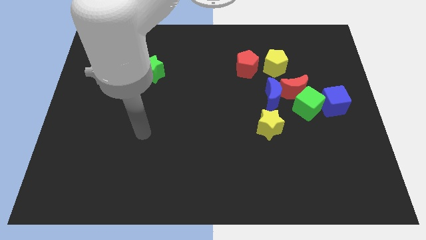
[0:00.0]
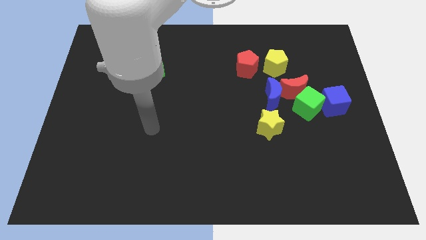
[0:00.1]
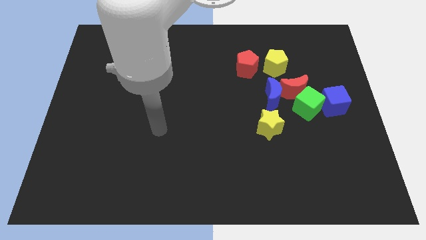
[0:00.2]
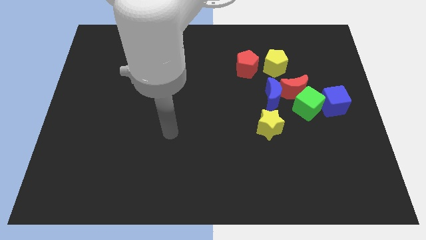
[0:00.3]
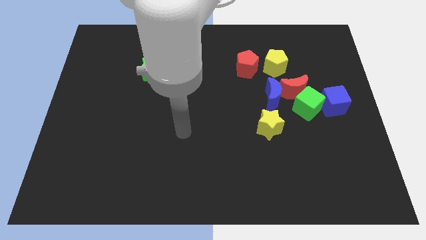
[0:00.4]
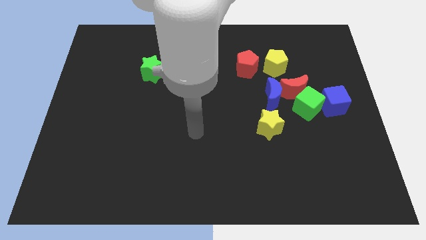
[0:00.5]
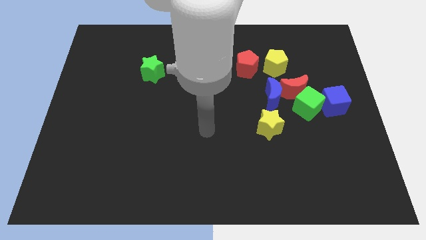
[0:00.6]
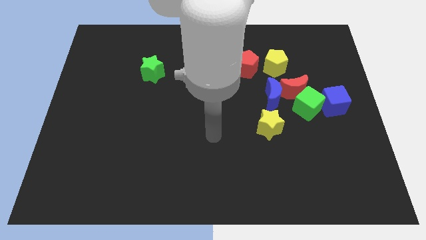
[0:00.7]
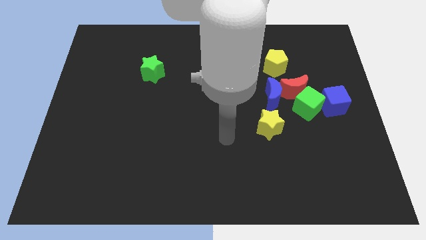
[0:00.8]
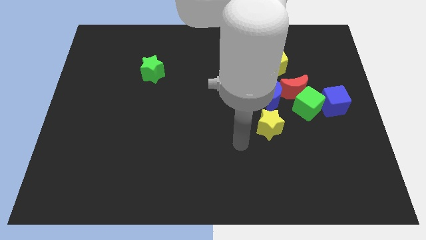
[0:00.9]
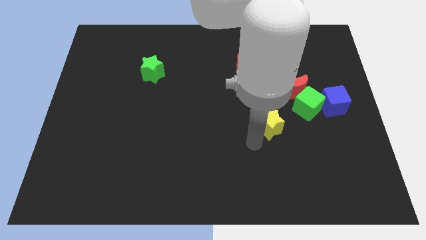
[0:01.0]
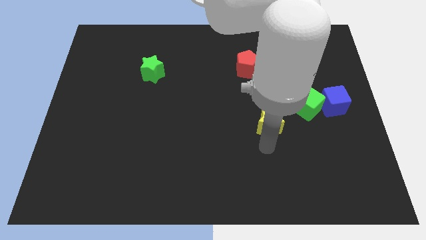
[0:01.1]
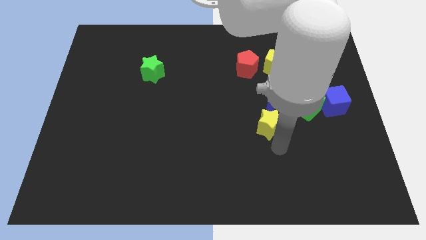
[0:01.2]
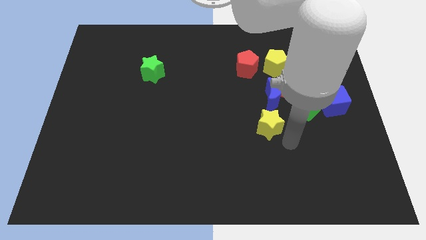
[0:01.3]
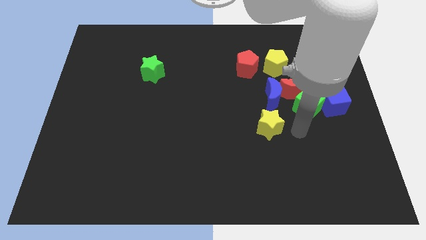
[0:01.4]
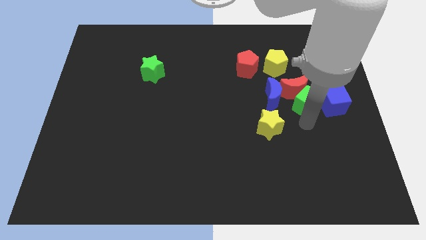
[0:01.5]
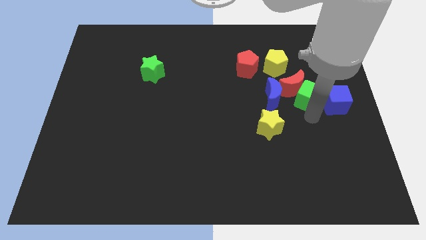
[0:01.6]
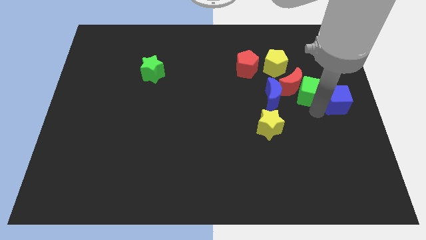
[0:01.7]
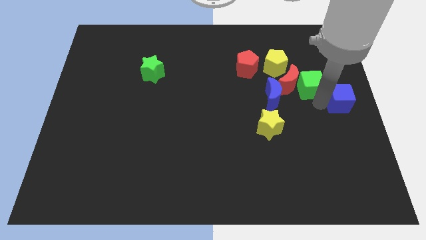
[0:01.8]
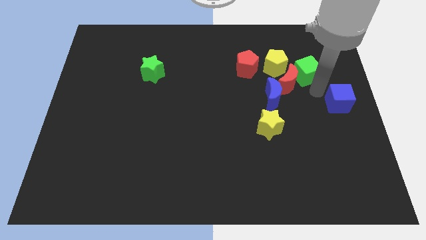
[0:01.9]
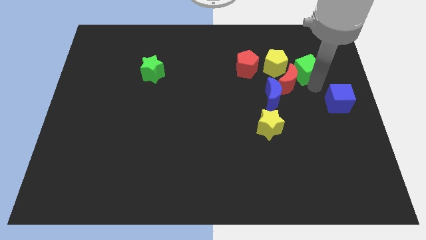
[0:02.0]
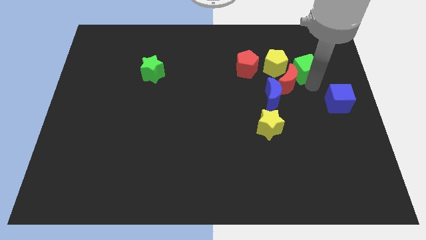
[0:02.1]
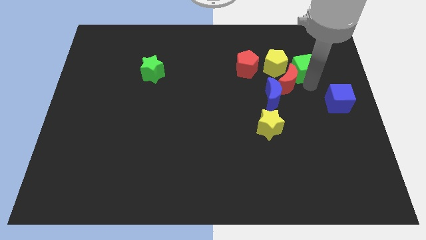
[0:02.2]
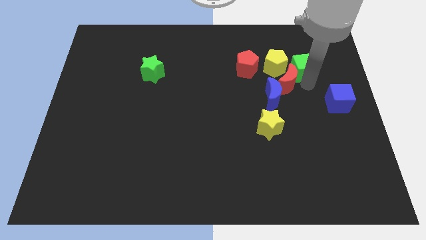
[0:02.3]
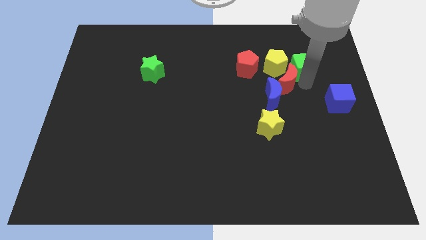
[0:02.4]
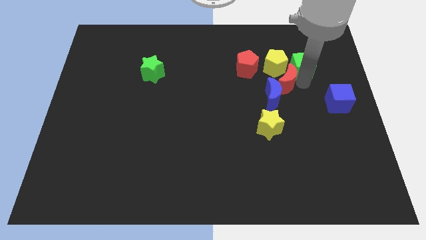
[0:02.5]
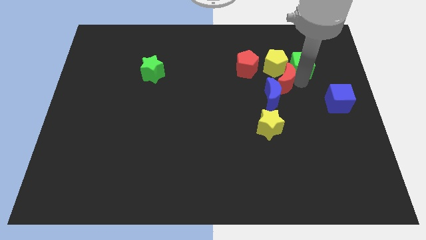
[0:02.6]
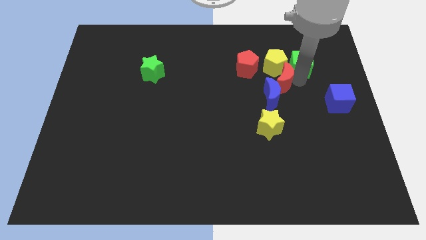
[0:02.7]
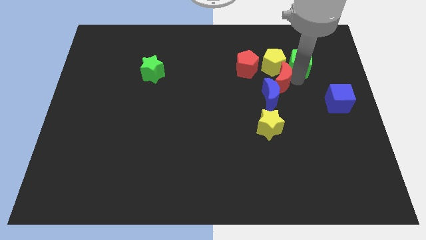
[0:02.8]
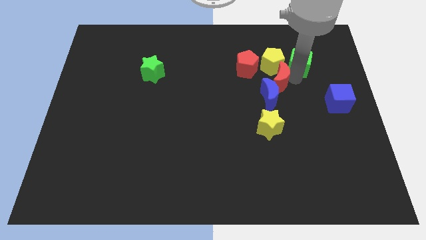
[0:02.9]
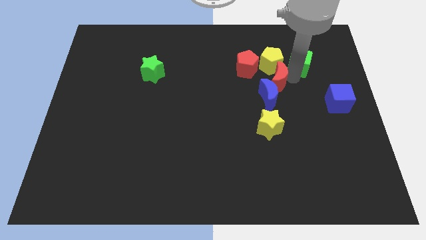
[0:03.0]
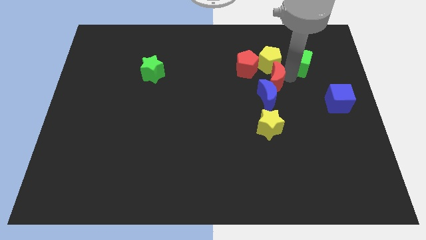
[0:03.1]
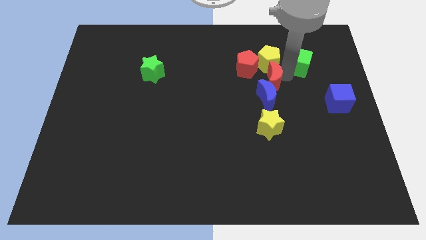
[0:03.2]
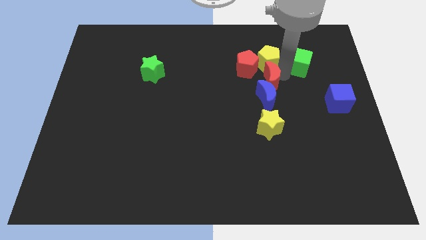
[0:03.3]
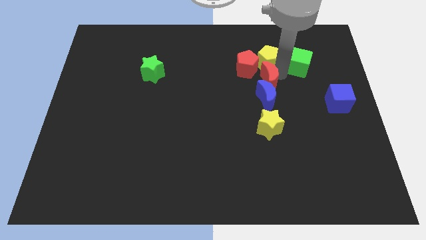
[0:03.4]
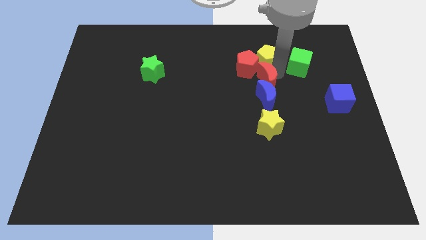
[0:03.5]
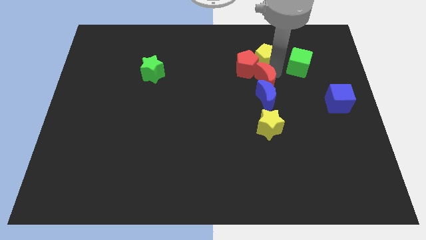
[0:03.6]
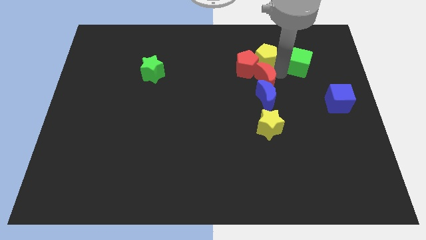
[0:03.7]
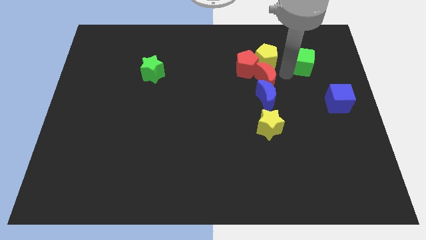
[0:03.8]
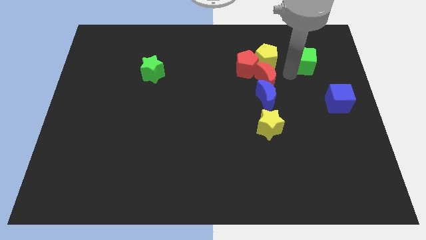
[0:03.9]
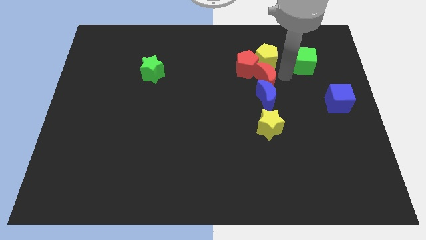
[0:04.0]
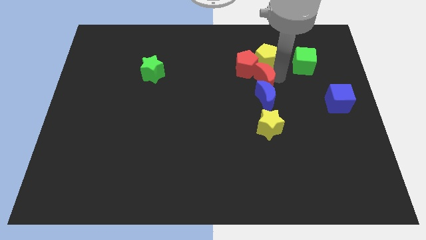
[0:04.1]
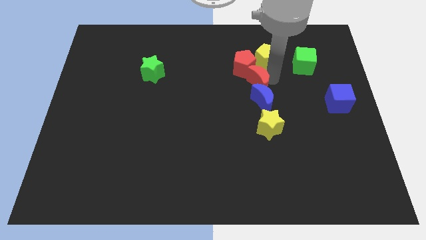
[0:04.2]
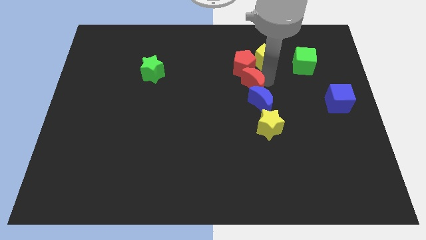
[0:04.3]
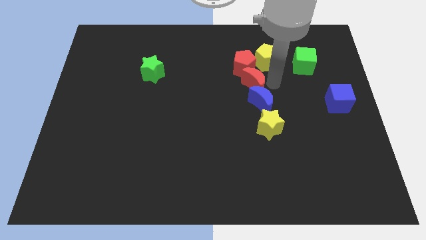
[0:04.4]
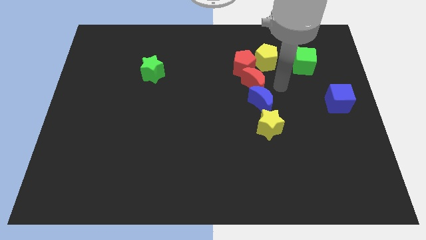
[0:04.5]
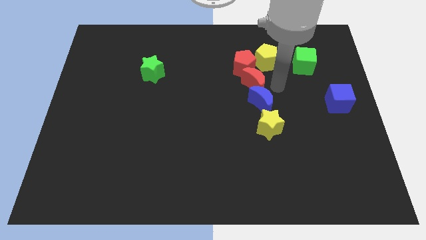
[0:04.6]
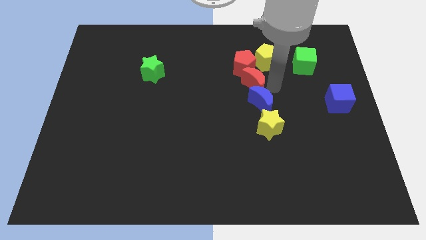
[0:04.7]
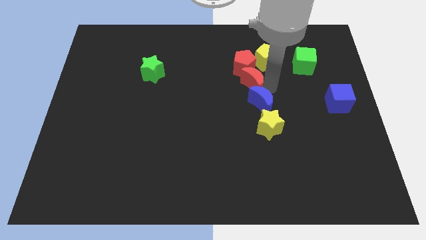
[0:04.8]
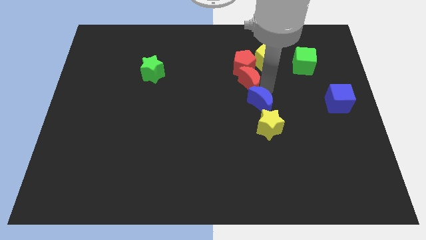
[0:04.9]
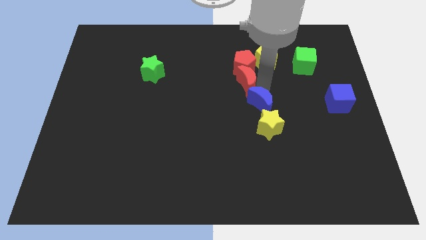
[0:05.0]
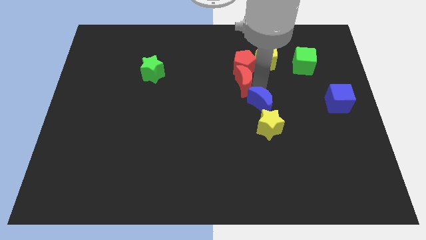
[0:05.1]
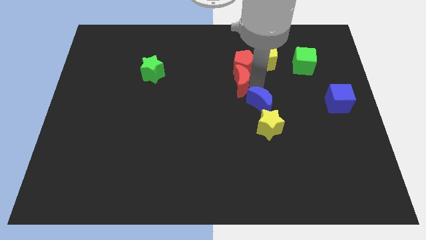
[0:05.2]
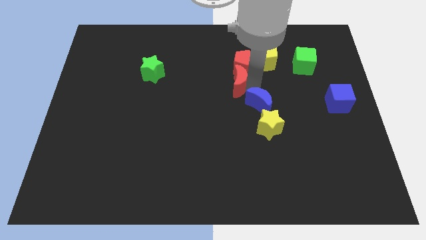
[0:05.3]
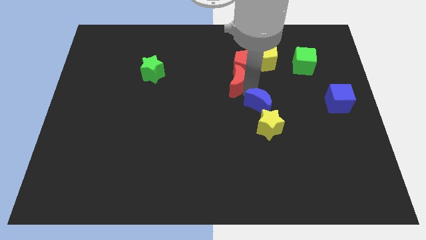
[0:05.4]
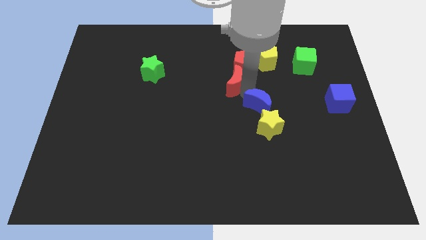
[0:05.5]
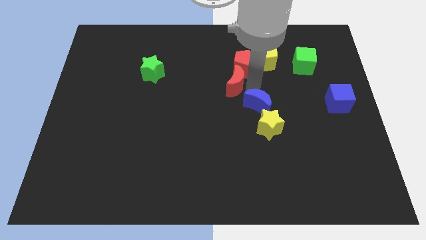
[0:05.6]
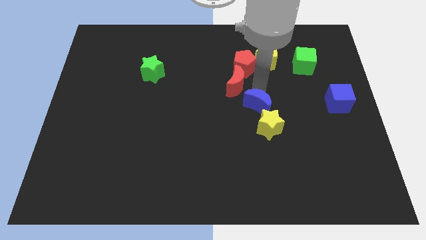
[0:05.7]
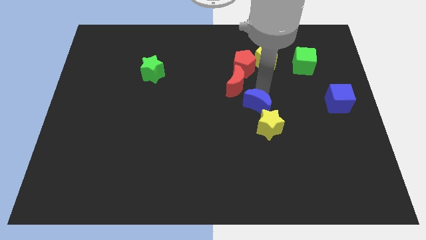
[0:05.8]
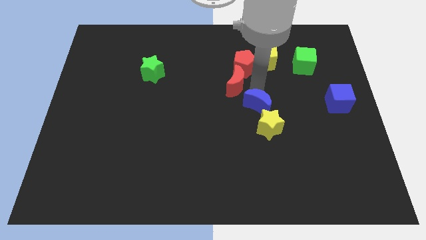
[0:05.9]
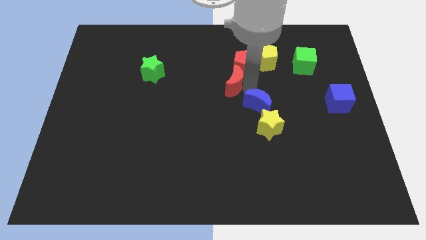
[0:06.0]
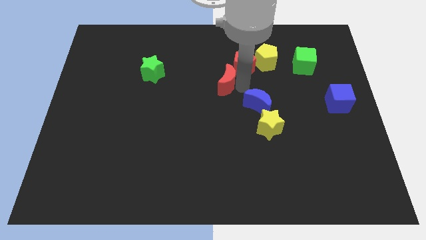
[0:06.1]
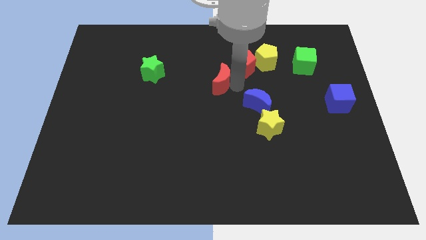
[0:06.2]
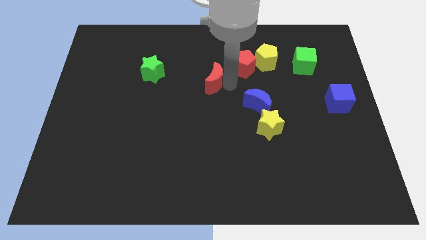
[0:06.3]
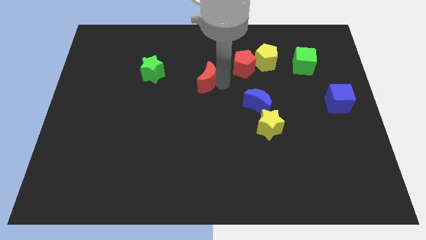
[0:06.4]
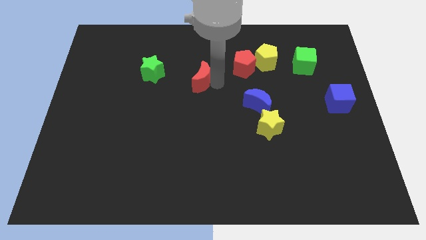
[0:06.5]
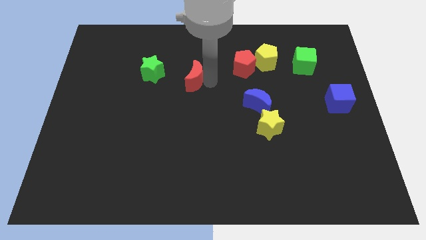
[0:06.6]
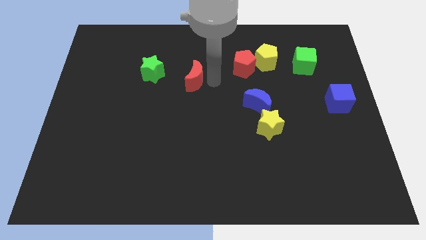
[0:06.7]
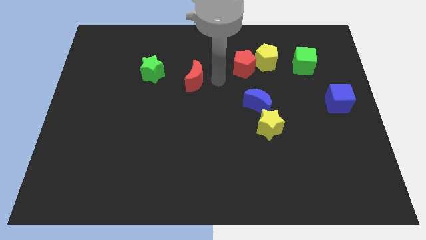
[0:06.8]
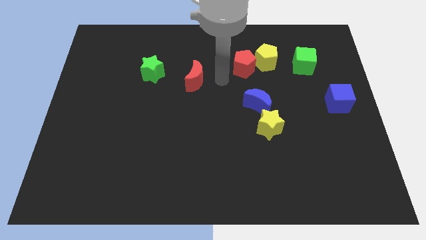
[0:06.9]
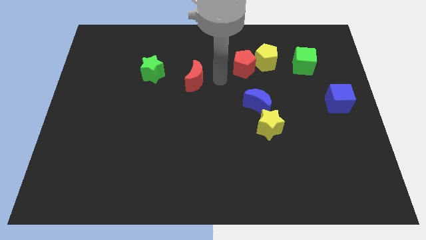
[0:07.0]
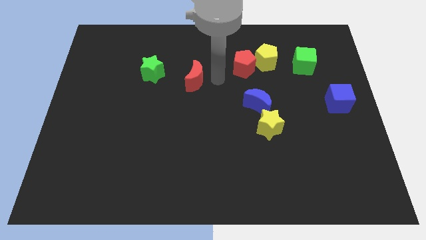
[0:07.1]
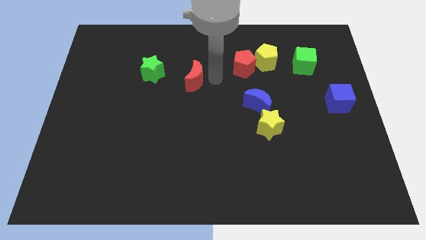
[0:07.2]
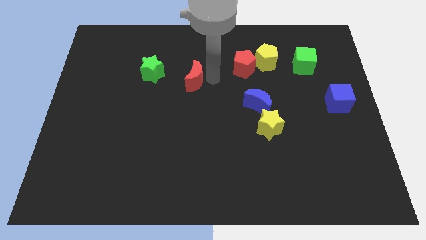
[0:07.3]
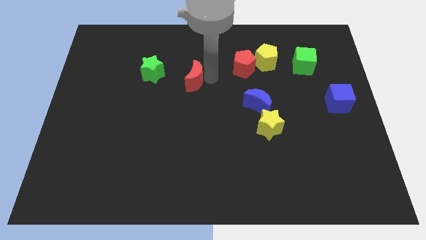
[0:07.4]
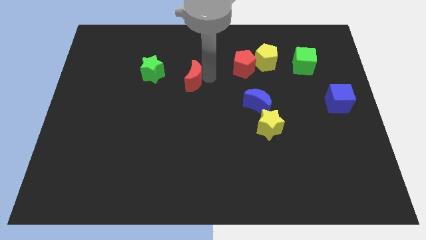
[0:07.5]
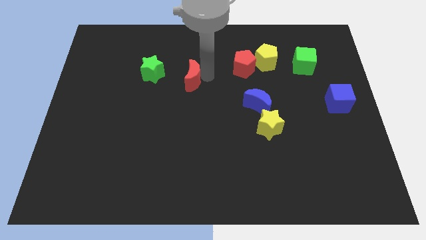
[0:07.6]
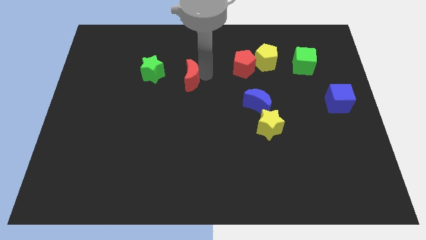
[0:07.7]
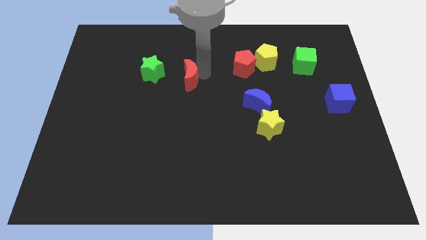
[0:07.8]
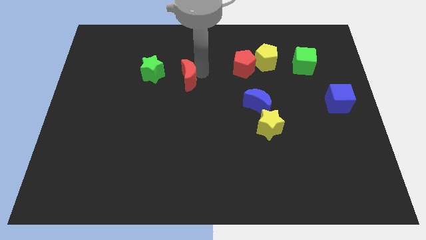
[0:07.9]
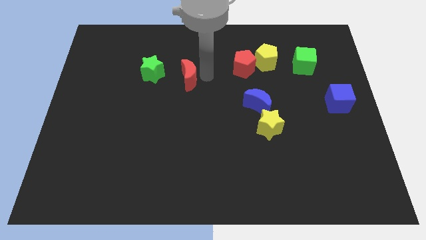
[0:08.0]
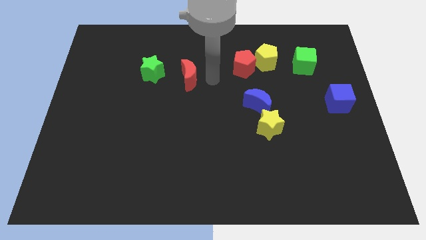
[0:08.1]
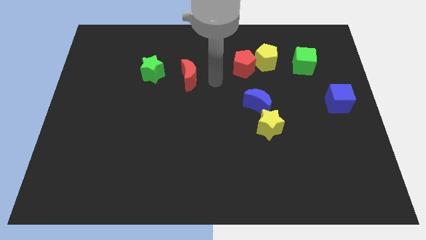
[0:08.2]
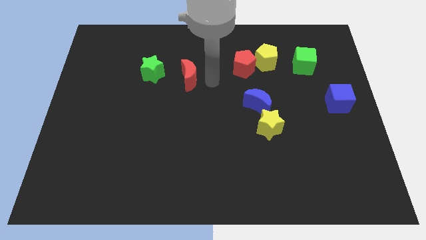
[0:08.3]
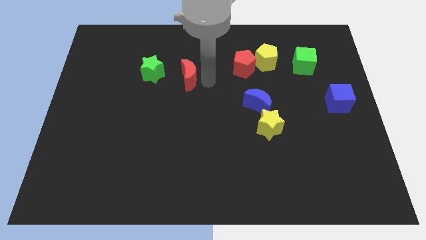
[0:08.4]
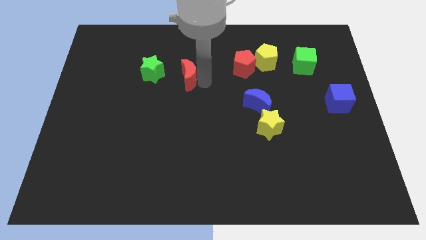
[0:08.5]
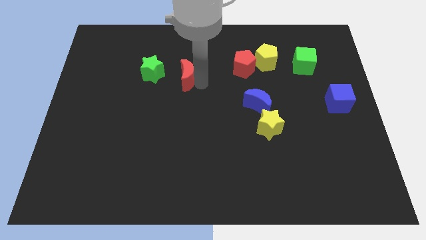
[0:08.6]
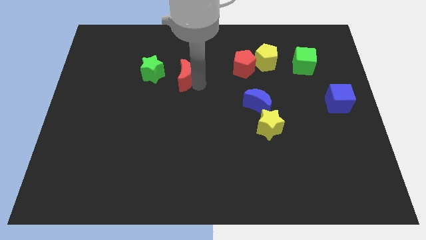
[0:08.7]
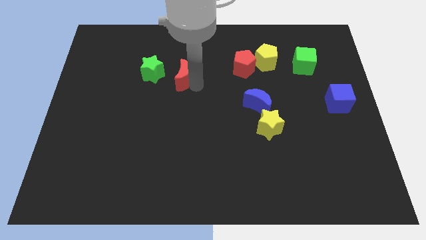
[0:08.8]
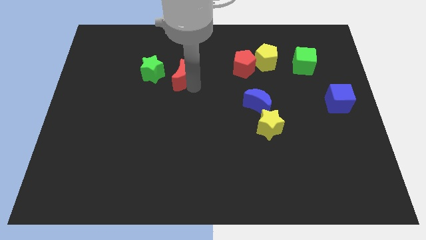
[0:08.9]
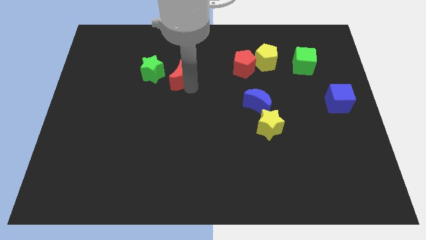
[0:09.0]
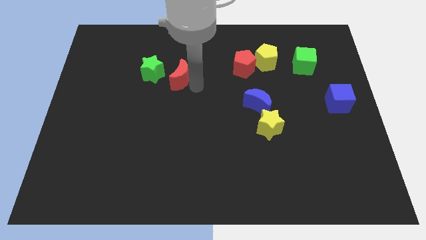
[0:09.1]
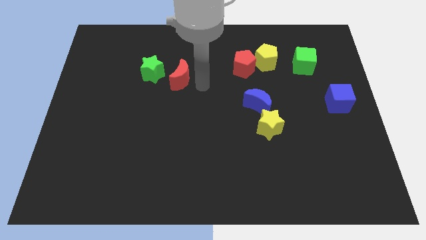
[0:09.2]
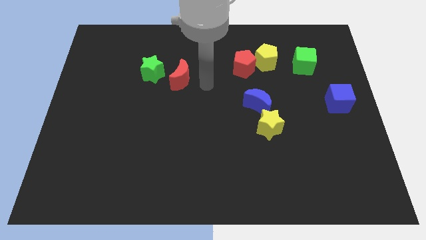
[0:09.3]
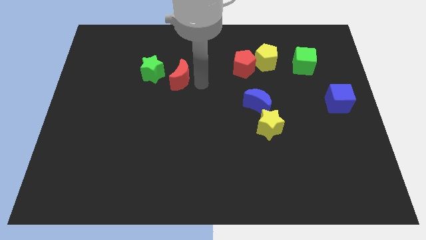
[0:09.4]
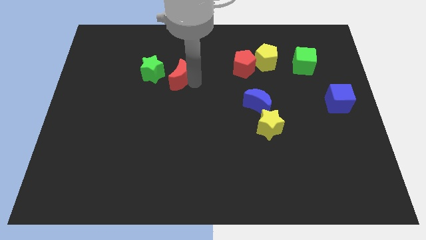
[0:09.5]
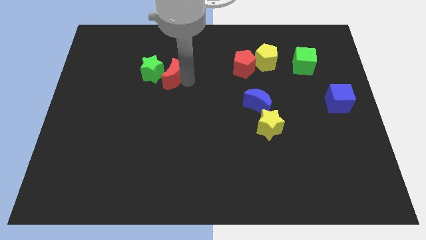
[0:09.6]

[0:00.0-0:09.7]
move the red moon to the green star
